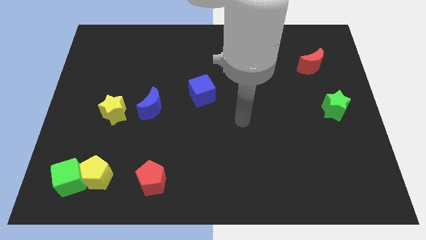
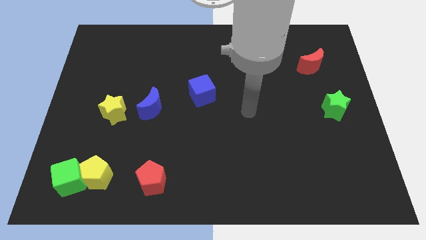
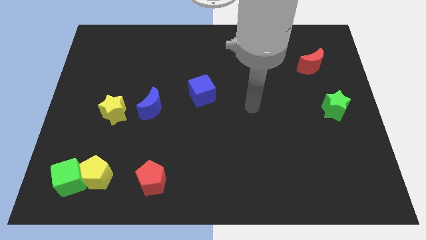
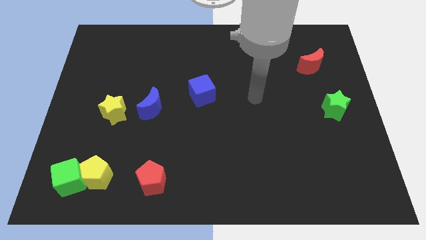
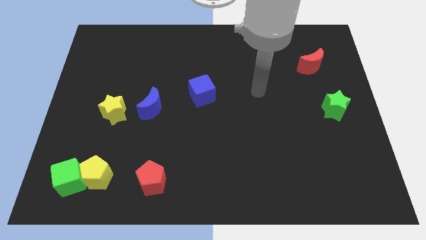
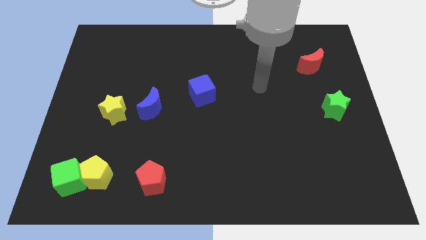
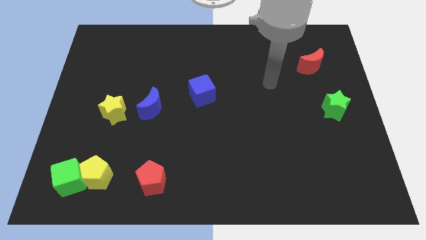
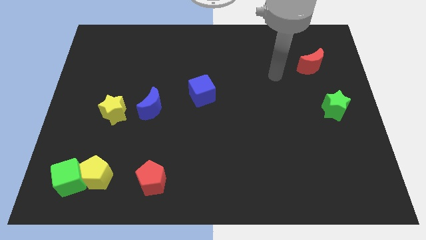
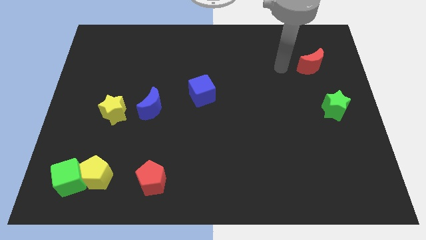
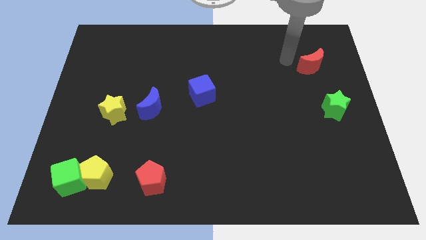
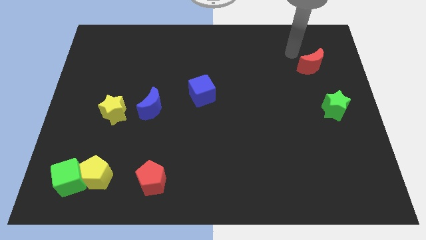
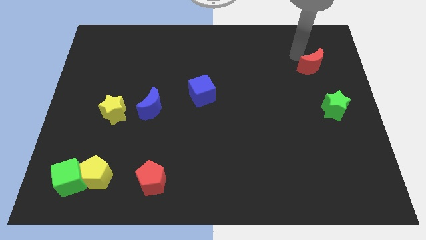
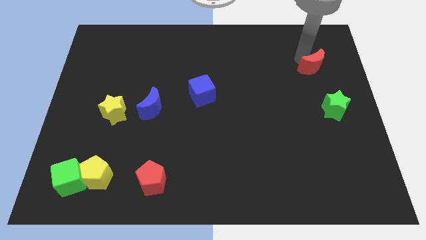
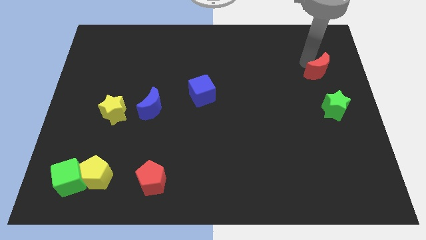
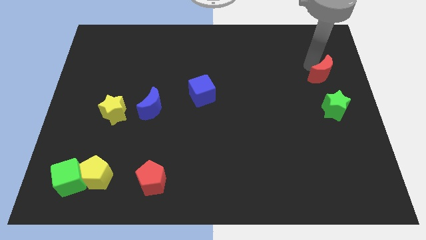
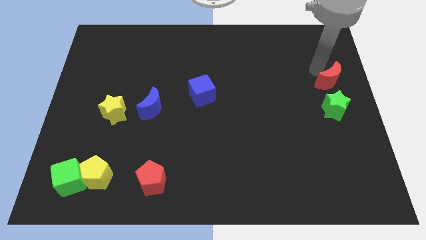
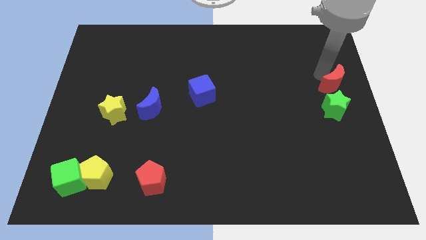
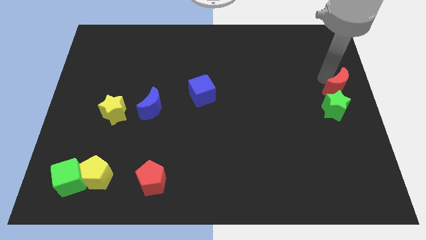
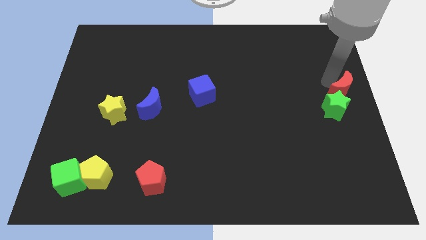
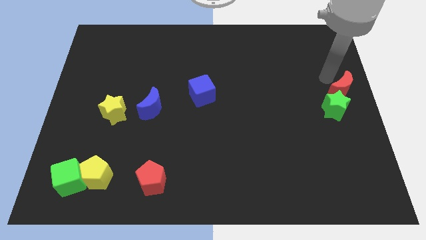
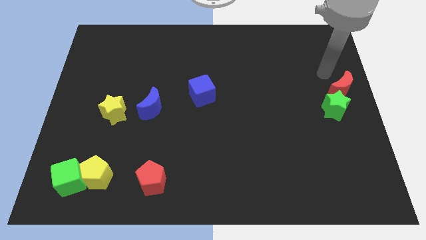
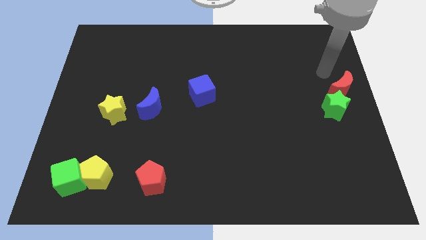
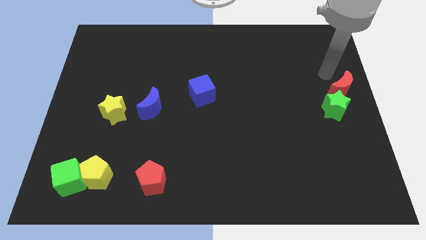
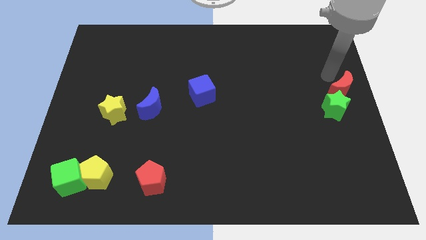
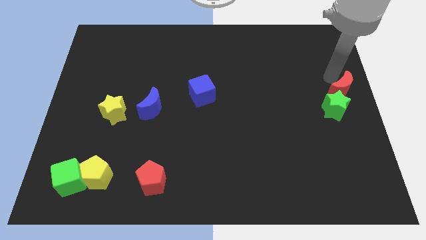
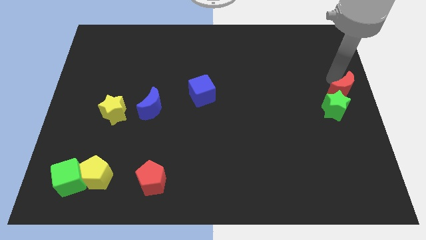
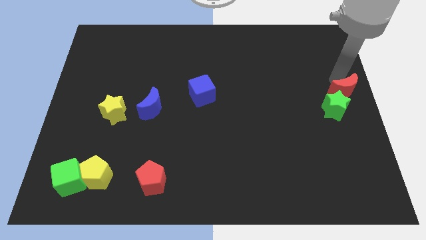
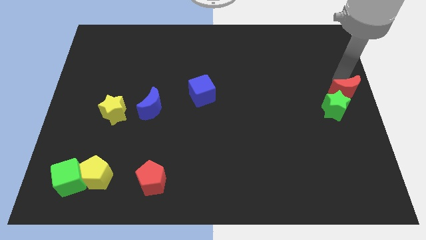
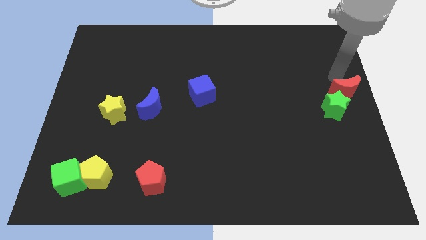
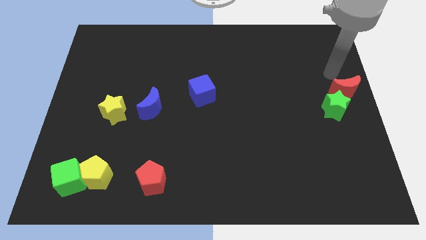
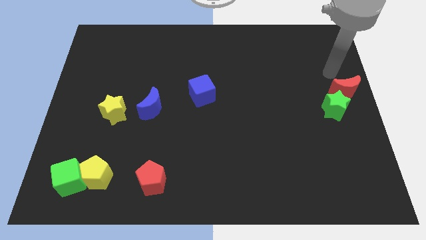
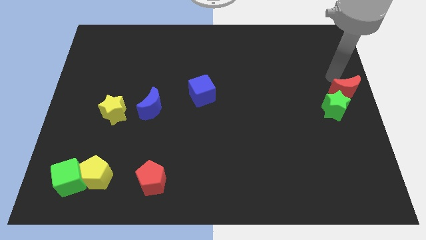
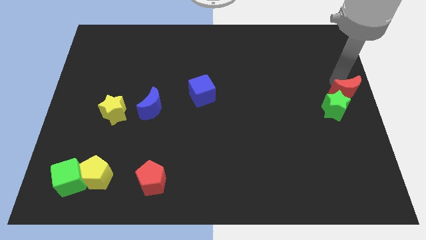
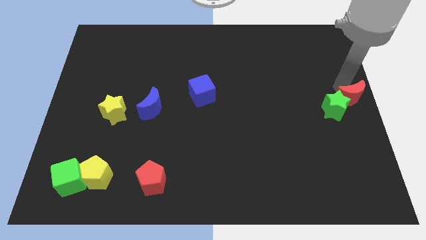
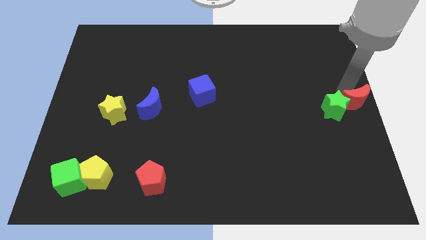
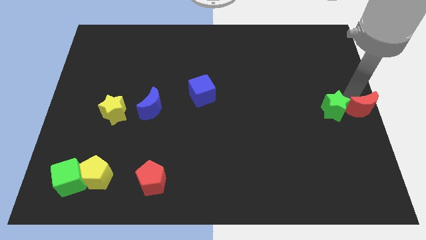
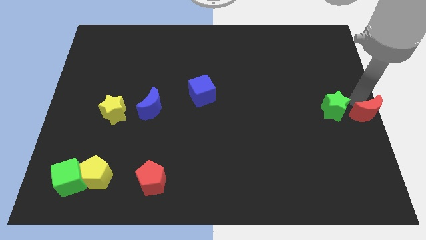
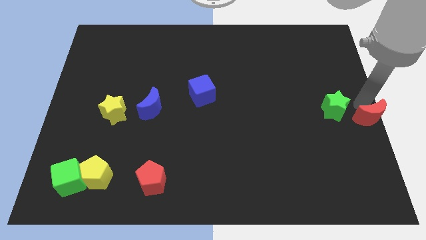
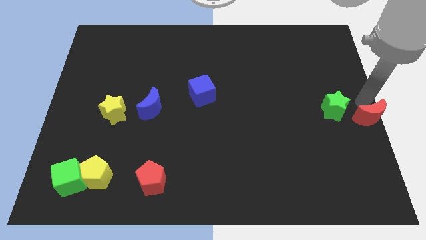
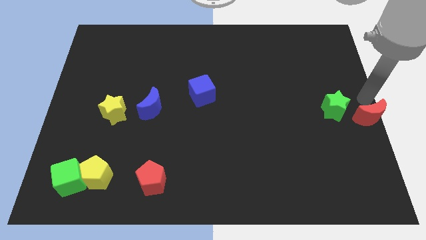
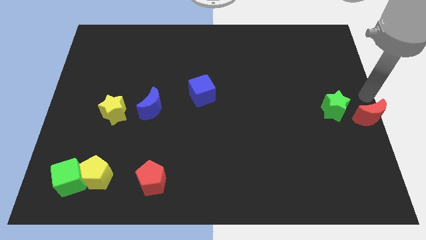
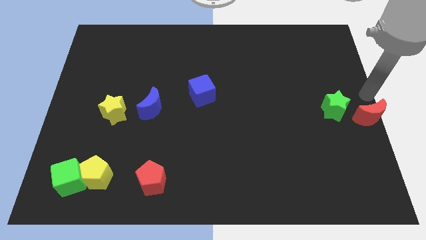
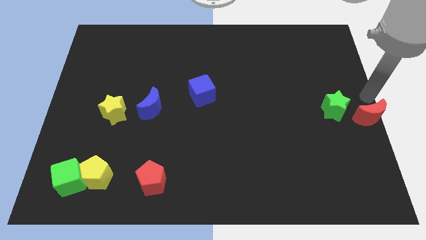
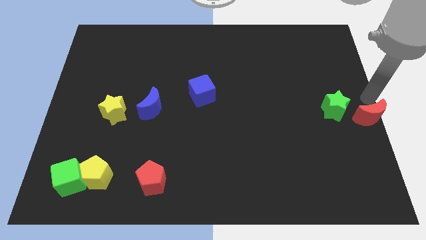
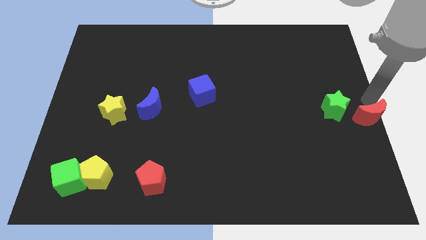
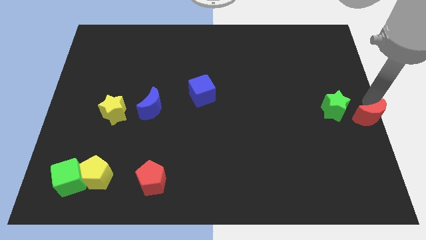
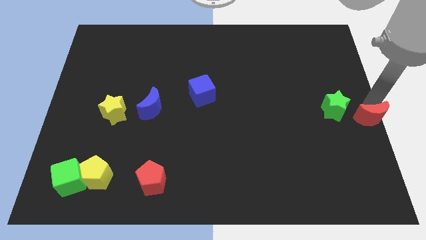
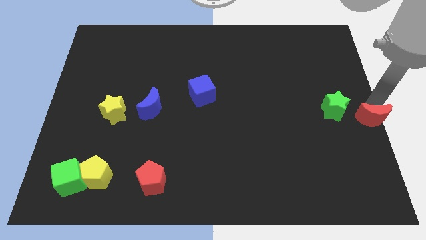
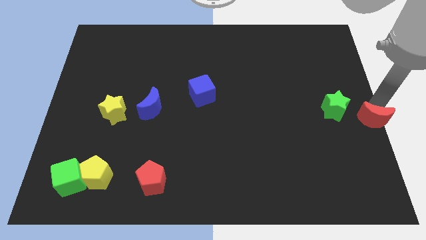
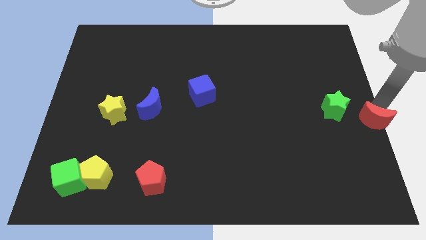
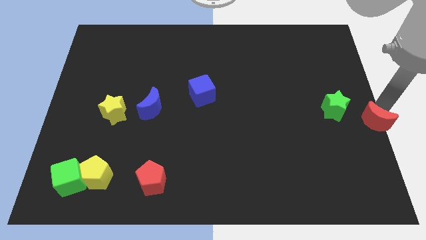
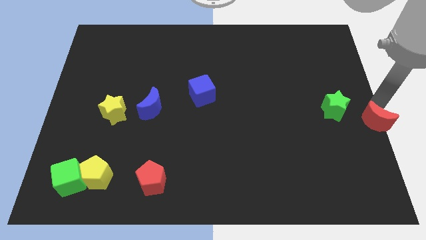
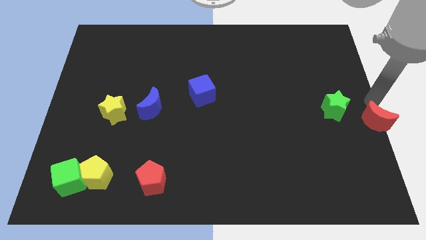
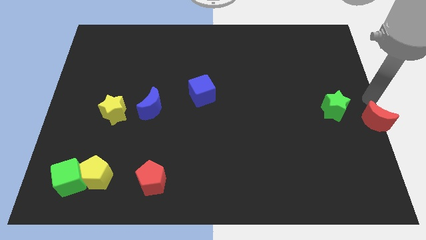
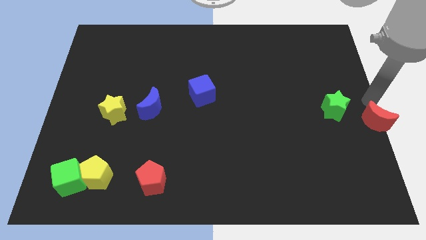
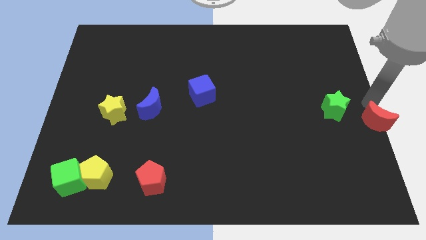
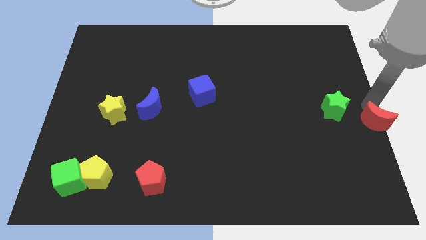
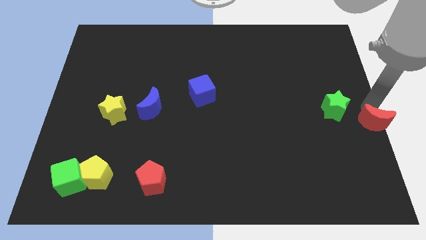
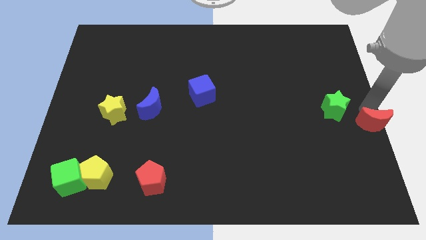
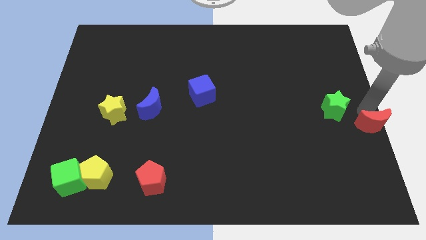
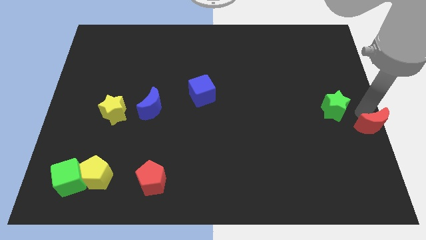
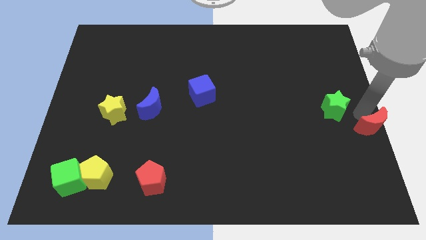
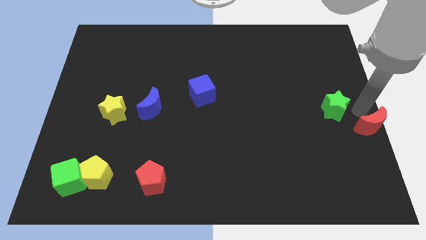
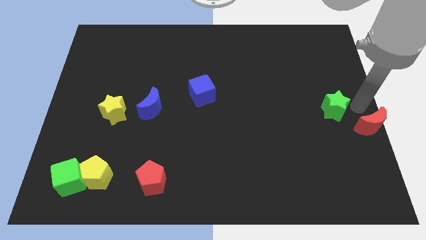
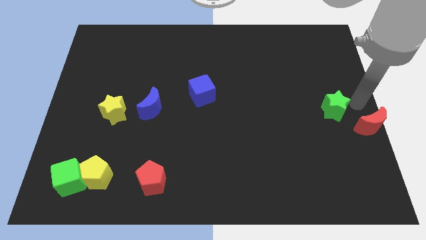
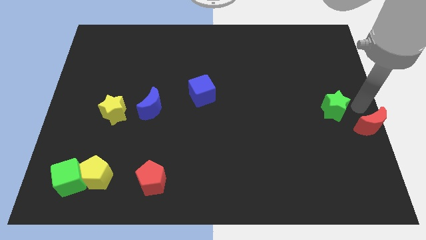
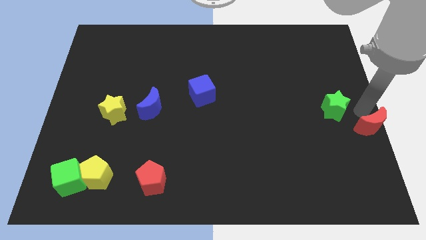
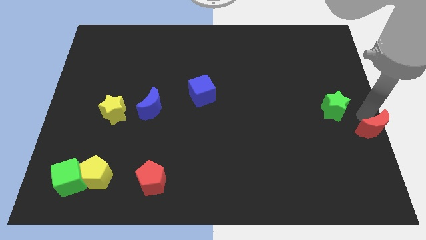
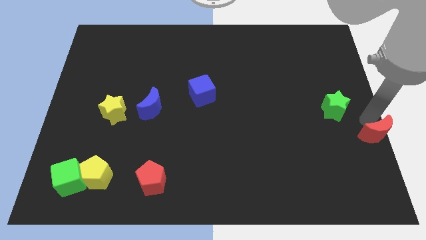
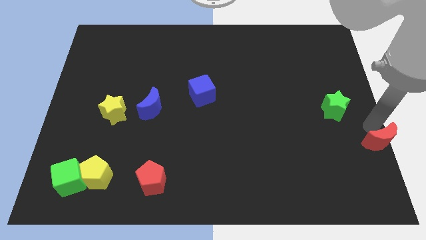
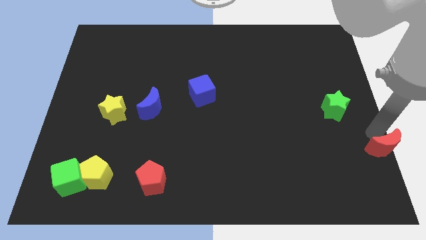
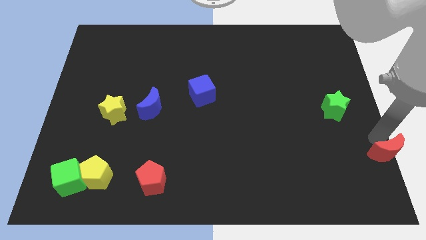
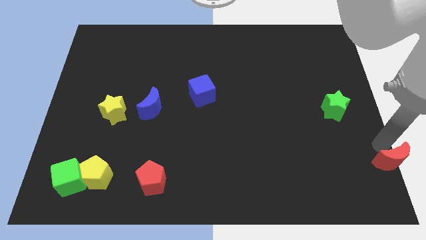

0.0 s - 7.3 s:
push the red moon to the lower right corner
